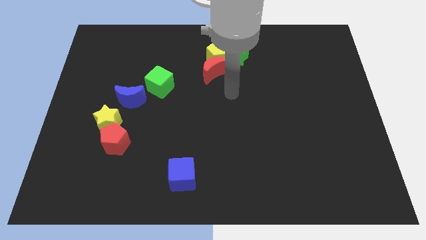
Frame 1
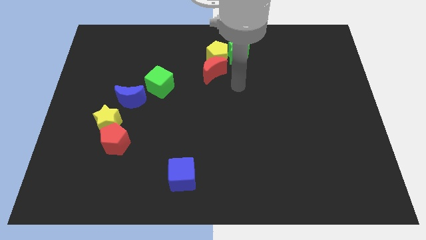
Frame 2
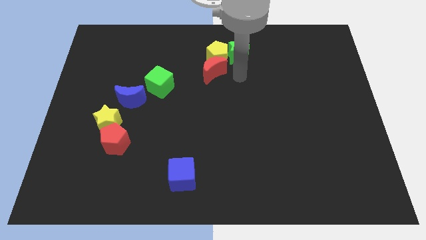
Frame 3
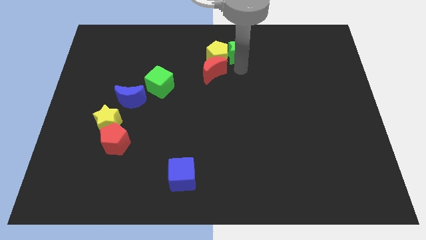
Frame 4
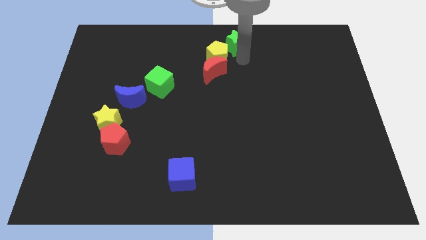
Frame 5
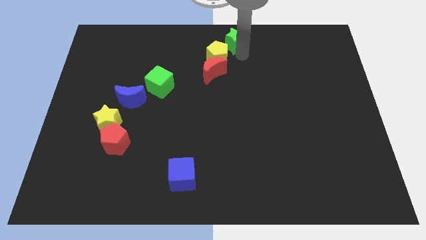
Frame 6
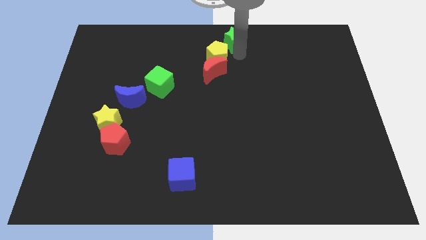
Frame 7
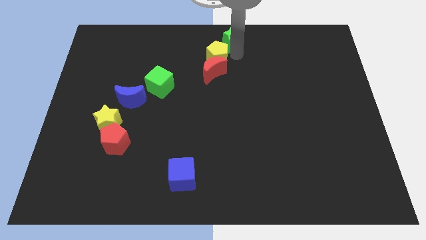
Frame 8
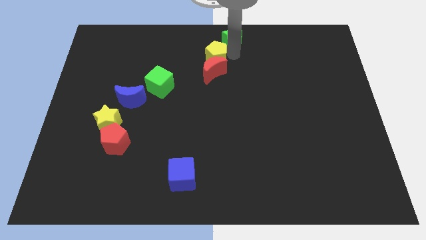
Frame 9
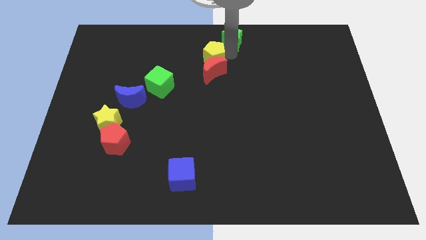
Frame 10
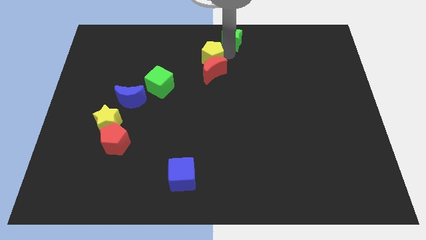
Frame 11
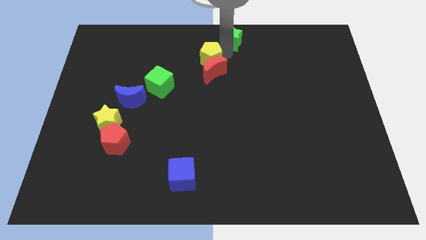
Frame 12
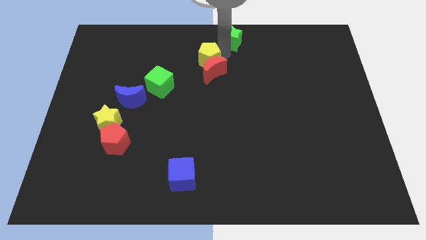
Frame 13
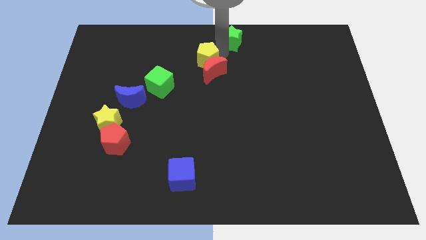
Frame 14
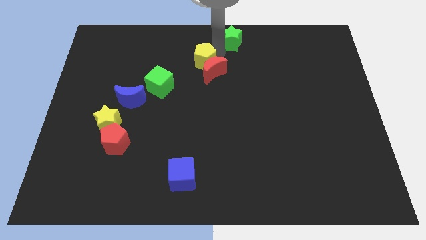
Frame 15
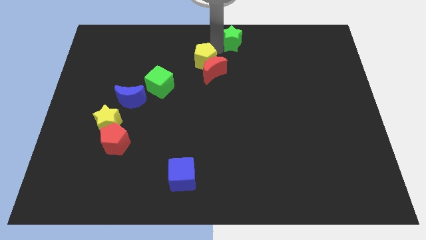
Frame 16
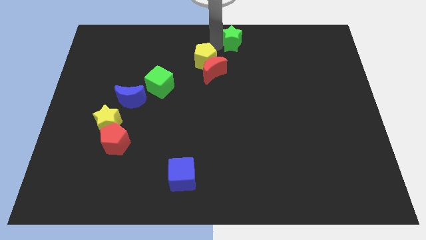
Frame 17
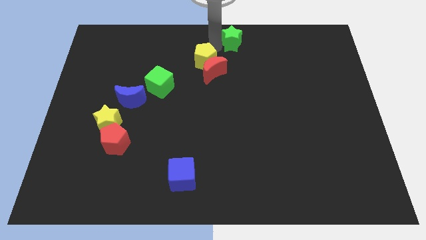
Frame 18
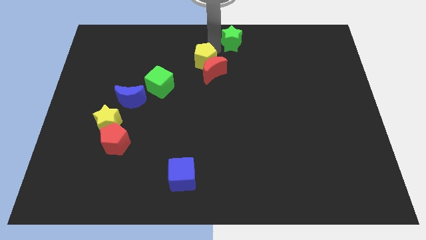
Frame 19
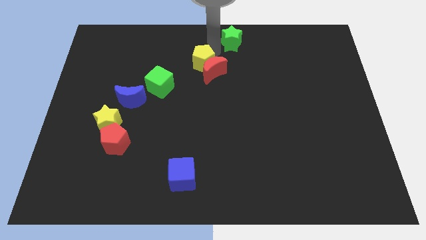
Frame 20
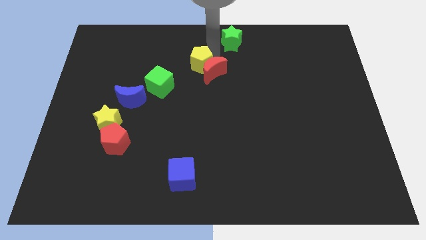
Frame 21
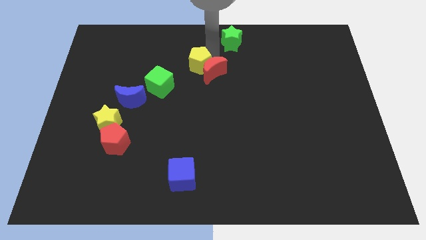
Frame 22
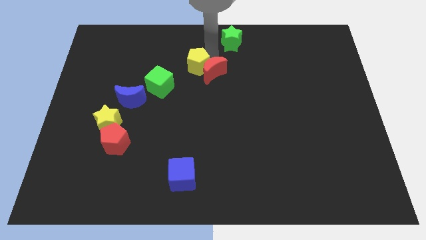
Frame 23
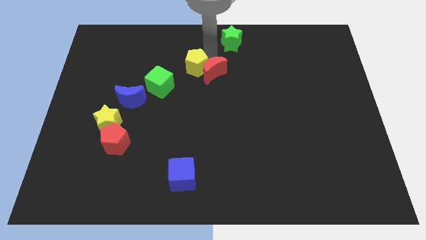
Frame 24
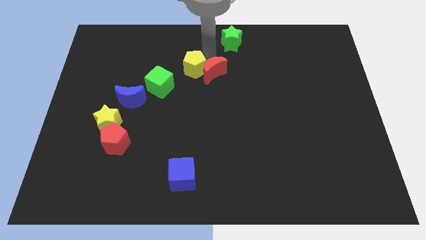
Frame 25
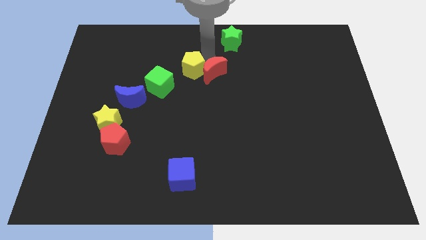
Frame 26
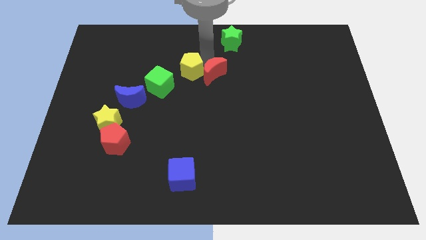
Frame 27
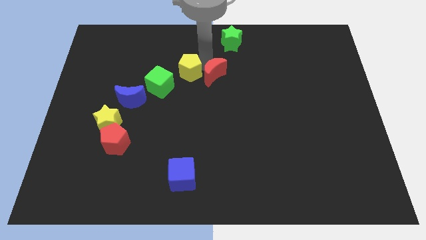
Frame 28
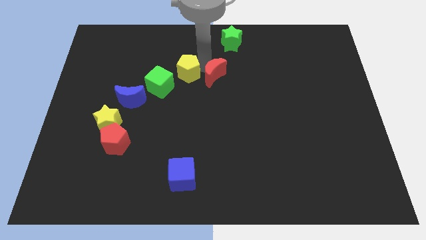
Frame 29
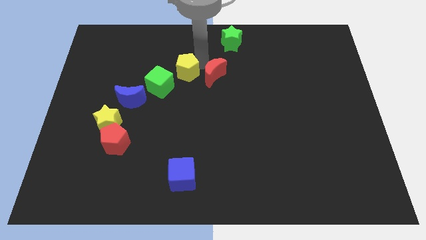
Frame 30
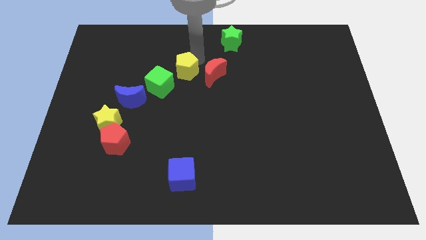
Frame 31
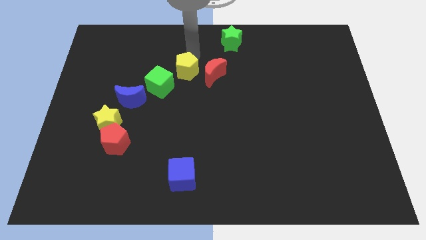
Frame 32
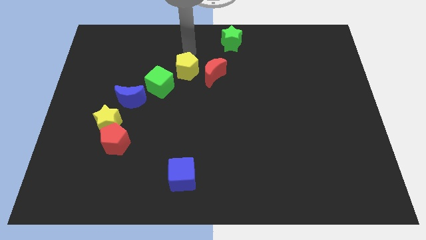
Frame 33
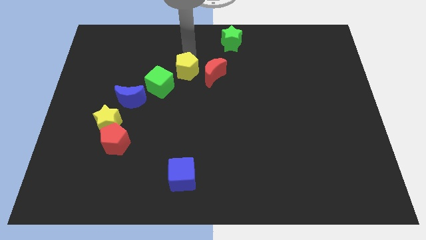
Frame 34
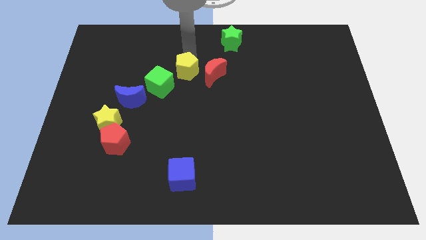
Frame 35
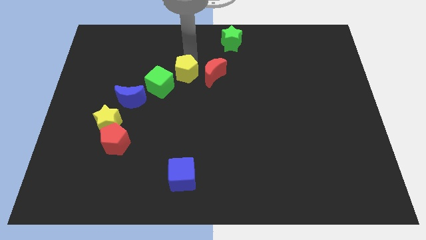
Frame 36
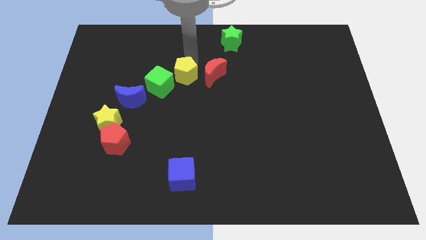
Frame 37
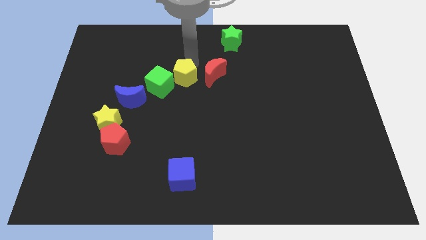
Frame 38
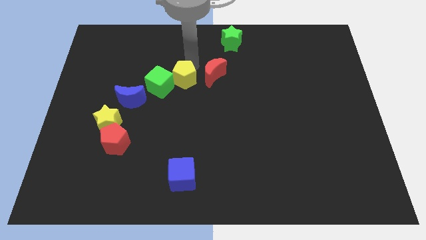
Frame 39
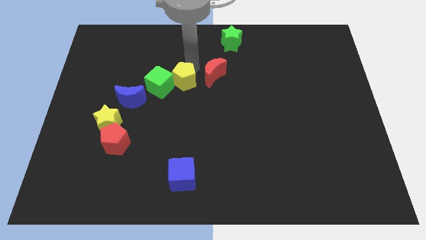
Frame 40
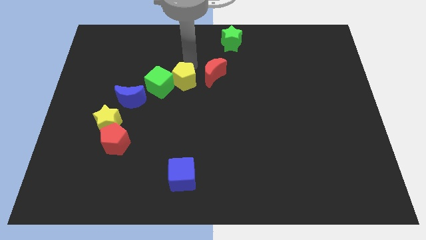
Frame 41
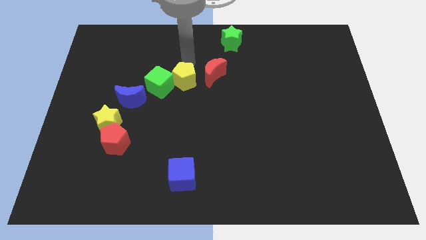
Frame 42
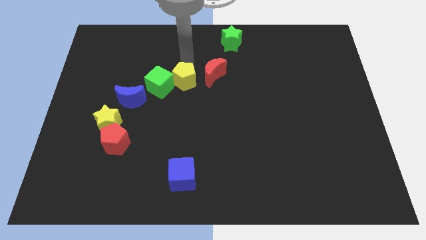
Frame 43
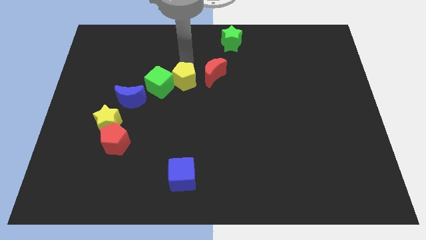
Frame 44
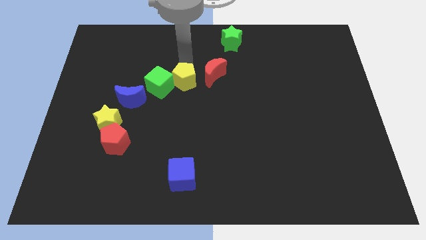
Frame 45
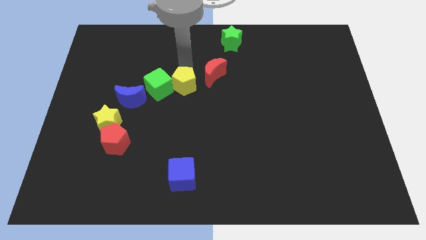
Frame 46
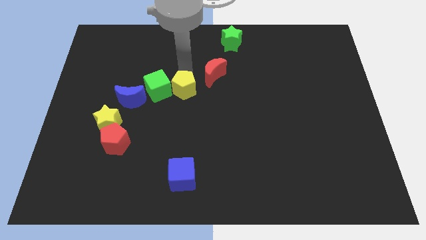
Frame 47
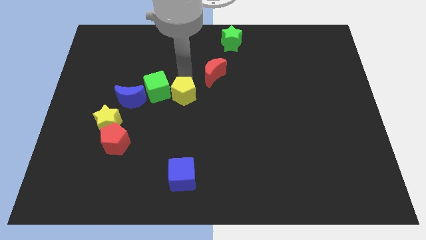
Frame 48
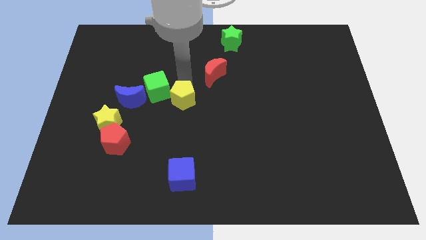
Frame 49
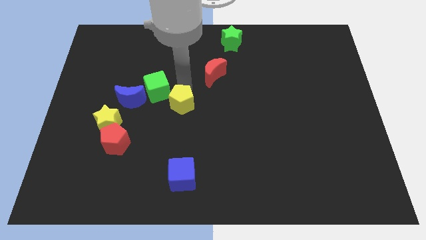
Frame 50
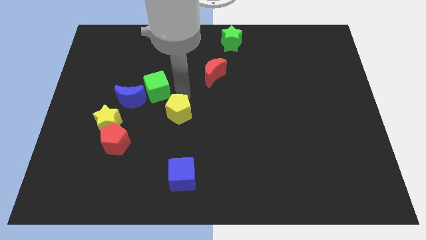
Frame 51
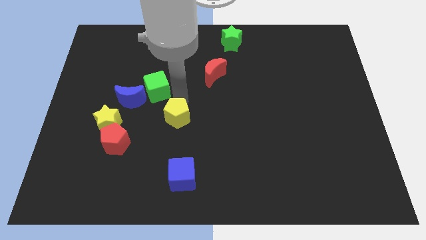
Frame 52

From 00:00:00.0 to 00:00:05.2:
push the yellow pentagon to the top side of the blue cube

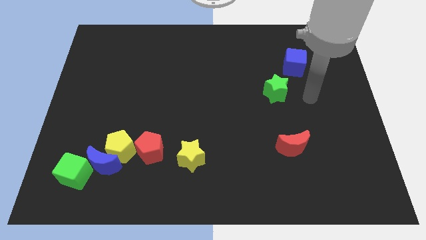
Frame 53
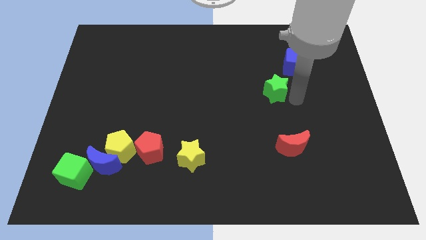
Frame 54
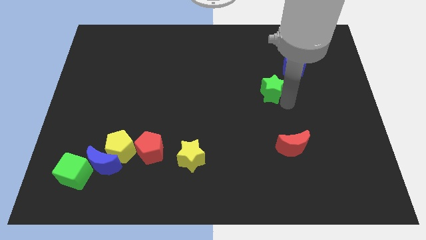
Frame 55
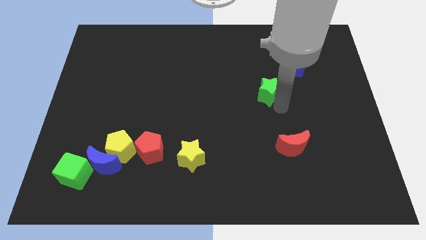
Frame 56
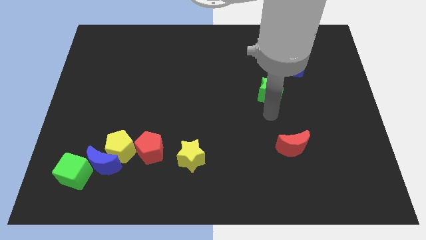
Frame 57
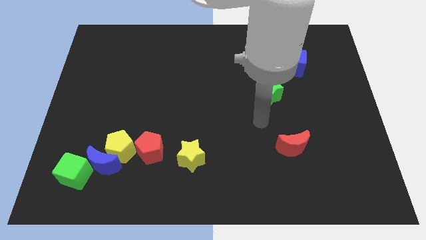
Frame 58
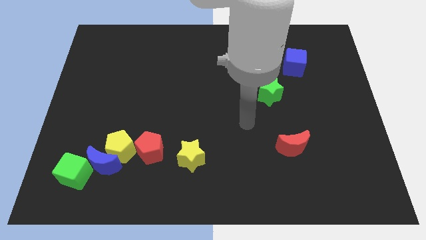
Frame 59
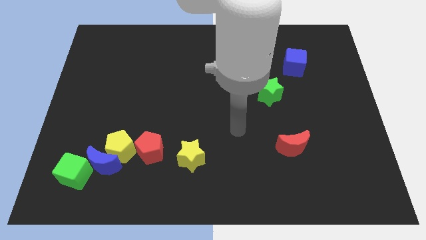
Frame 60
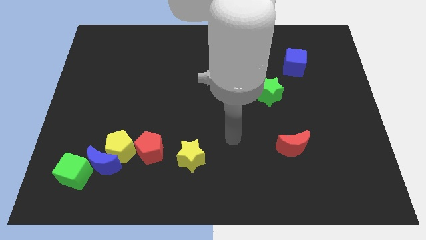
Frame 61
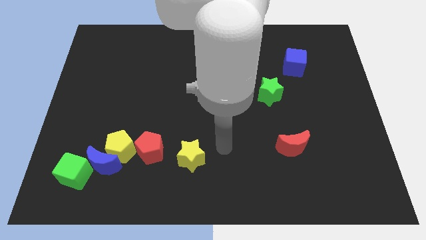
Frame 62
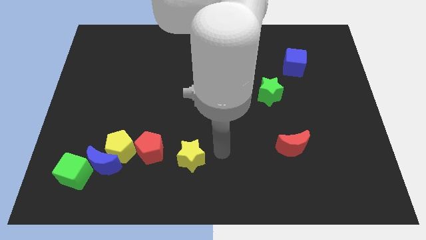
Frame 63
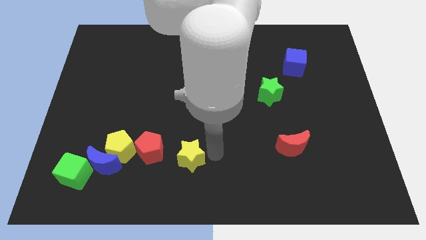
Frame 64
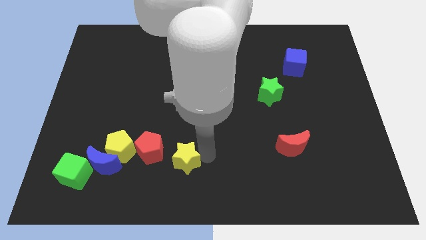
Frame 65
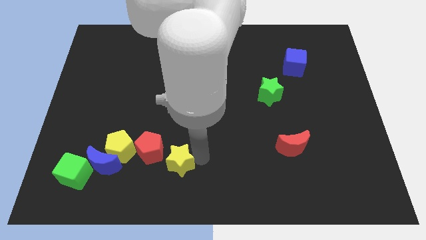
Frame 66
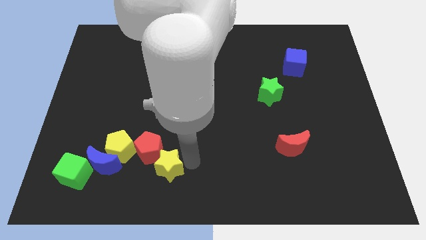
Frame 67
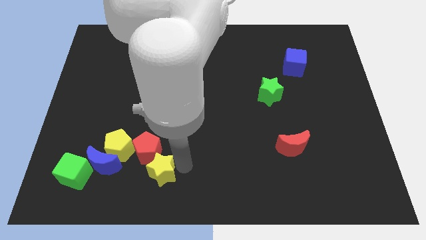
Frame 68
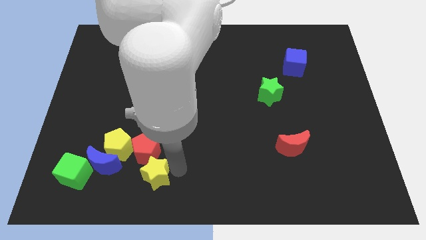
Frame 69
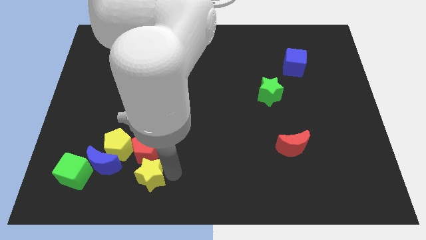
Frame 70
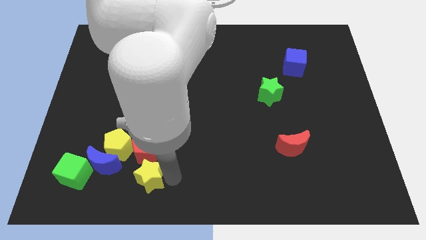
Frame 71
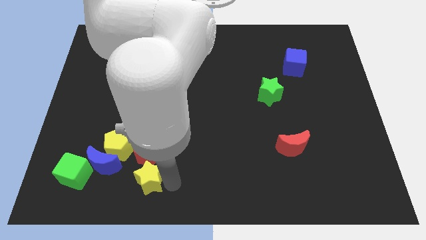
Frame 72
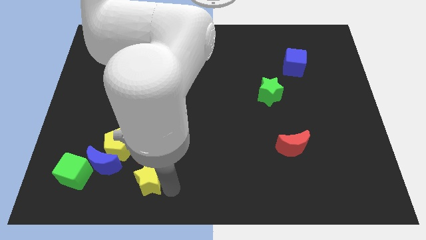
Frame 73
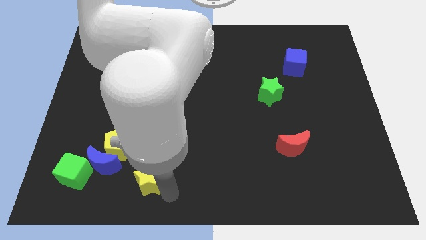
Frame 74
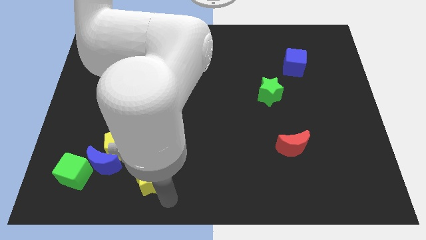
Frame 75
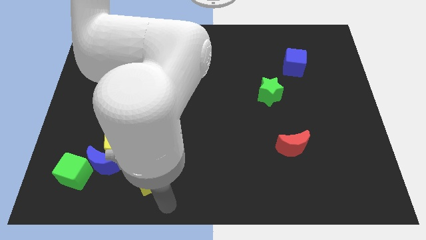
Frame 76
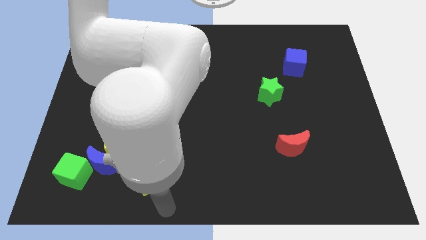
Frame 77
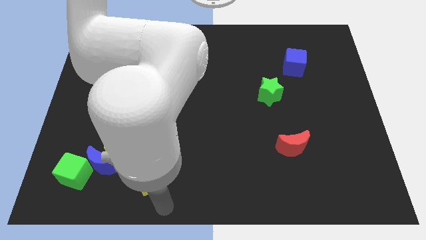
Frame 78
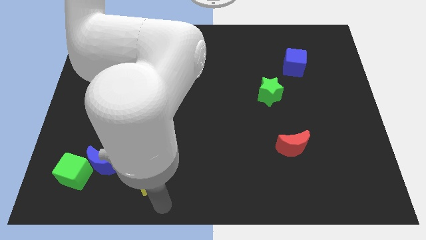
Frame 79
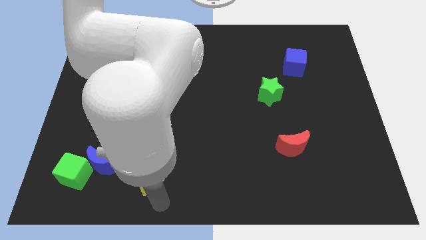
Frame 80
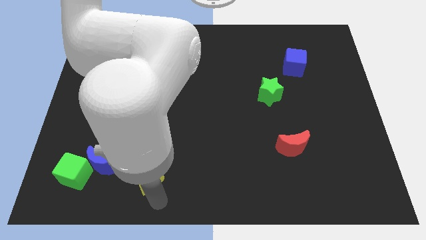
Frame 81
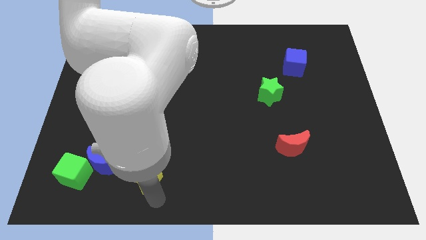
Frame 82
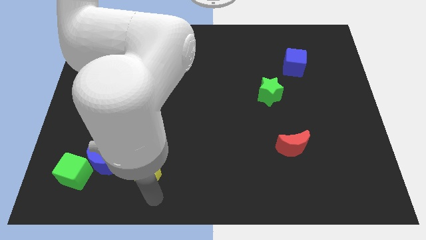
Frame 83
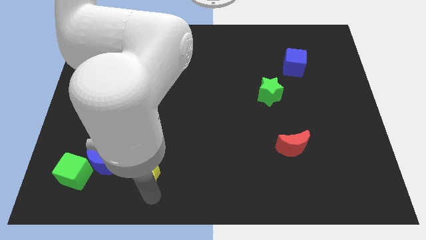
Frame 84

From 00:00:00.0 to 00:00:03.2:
move the yellow star to the bottom left of the red pentagon
